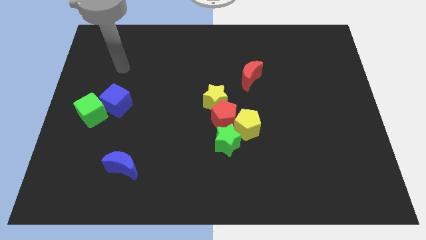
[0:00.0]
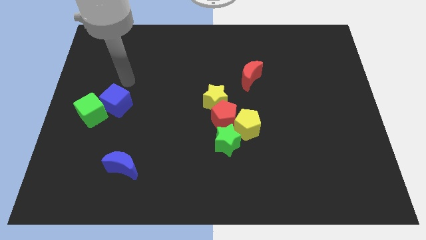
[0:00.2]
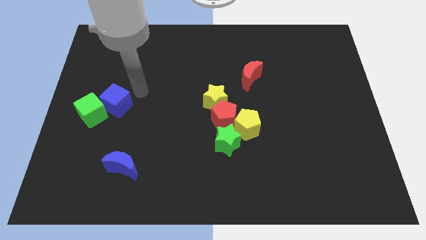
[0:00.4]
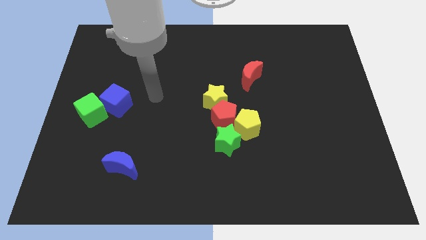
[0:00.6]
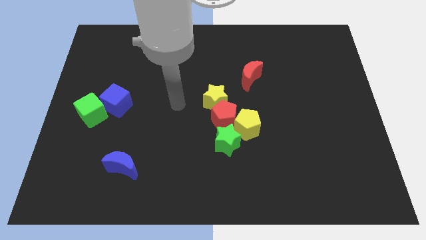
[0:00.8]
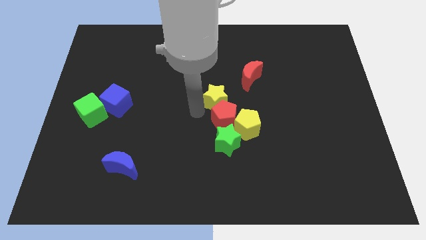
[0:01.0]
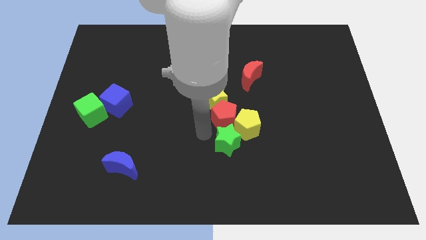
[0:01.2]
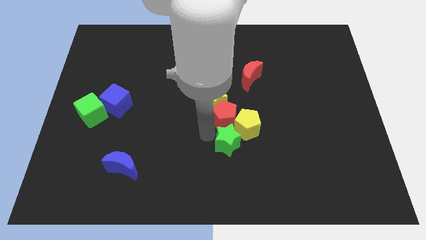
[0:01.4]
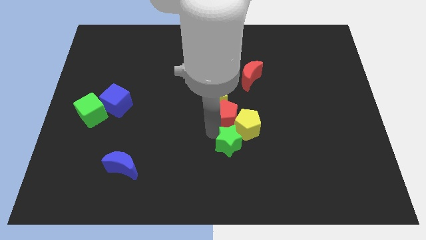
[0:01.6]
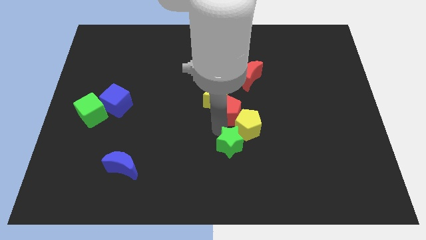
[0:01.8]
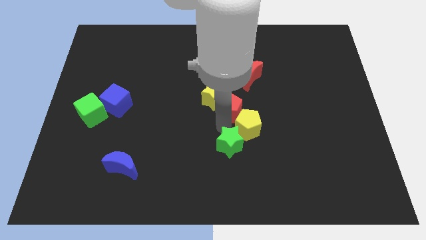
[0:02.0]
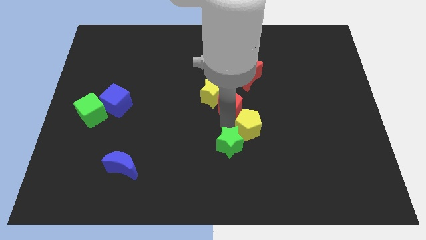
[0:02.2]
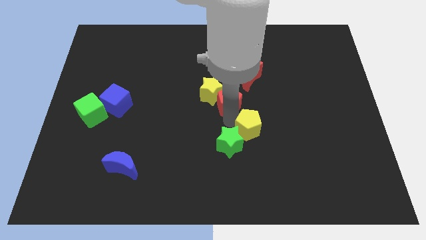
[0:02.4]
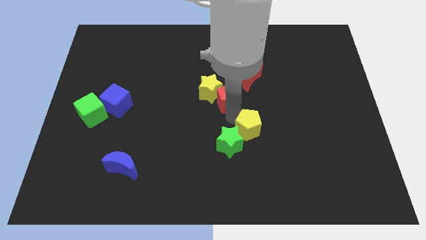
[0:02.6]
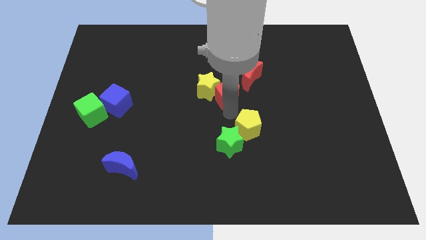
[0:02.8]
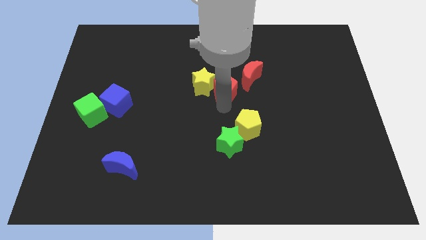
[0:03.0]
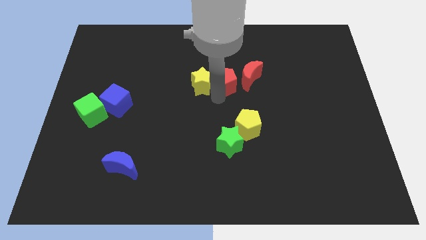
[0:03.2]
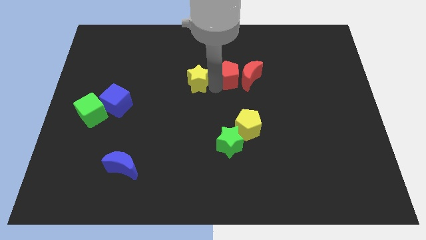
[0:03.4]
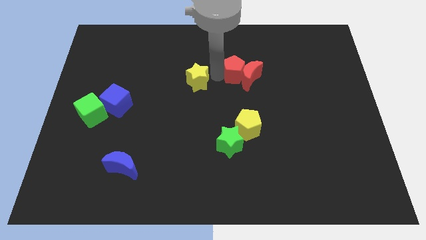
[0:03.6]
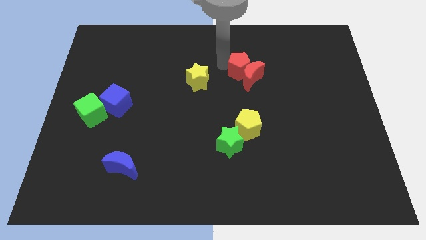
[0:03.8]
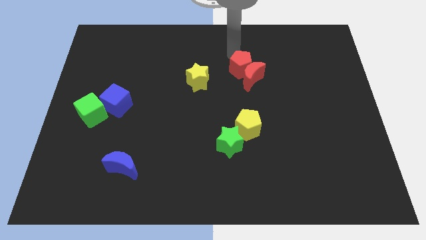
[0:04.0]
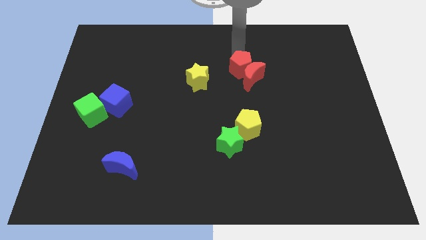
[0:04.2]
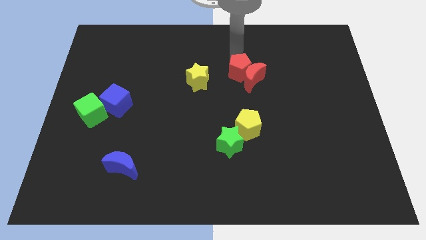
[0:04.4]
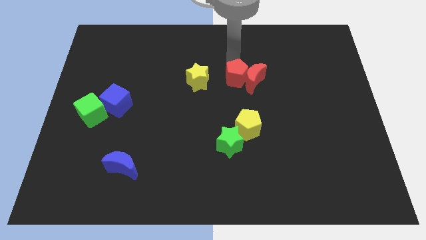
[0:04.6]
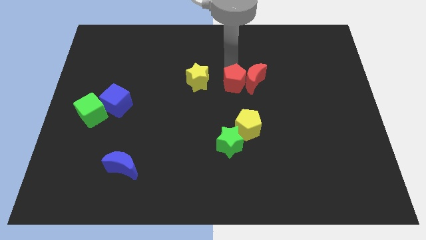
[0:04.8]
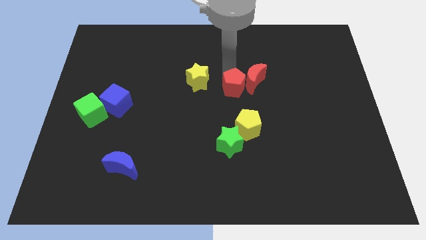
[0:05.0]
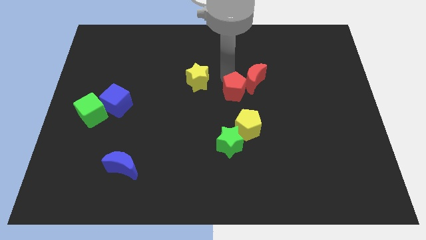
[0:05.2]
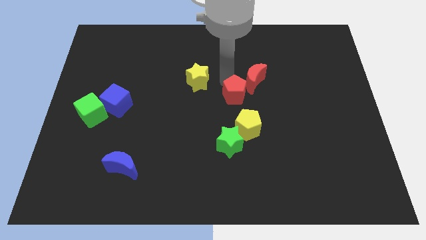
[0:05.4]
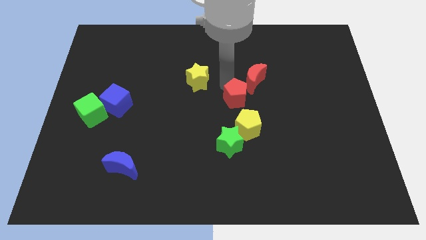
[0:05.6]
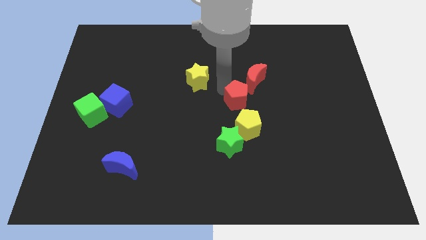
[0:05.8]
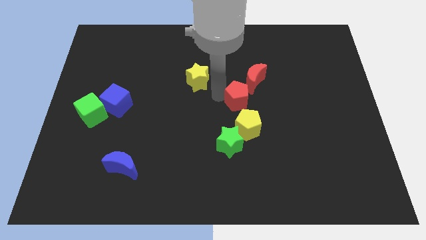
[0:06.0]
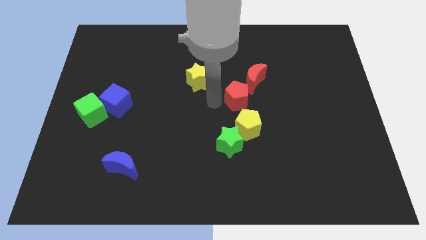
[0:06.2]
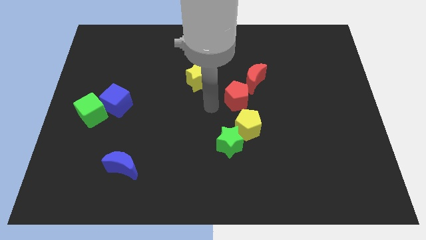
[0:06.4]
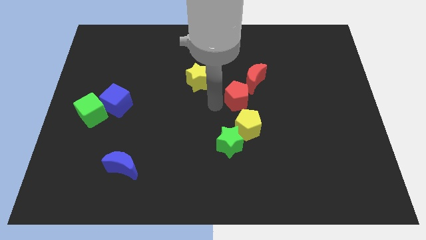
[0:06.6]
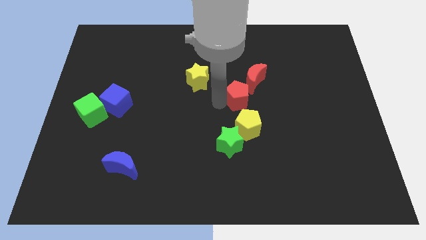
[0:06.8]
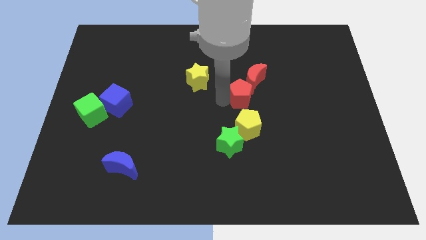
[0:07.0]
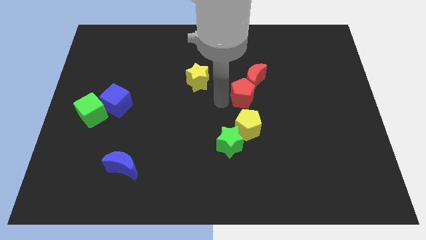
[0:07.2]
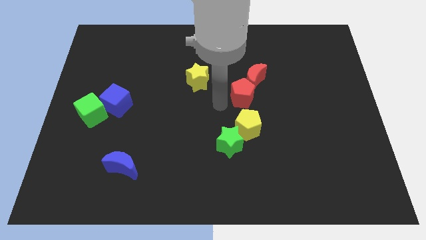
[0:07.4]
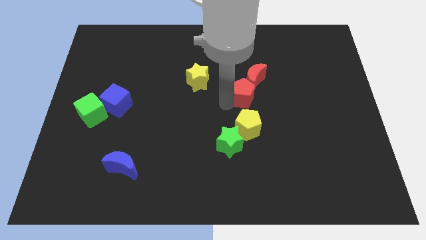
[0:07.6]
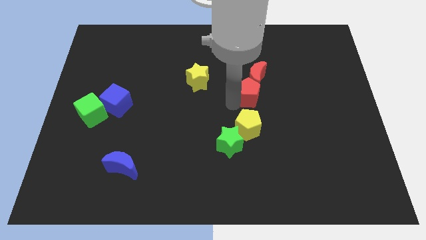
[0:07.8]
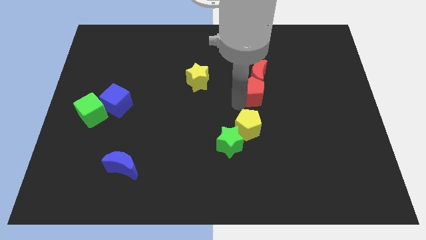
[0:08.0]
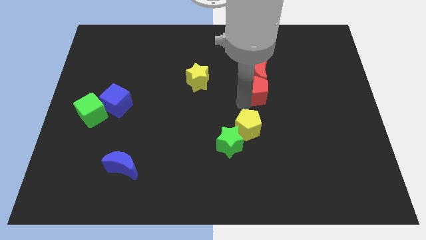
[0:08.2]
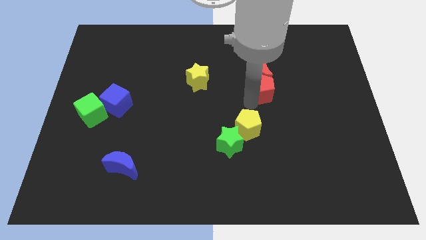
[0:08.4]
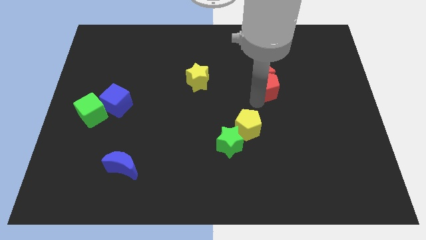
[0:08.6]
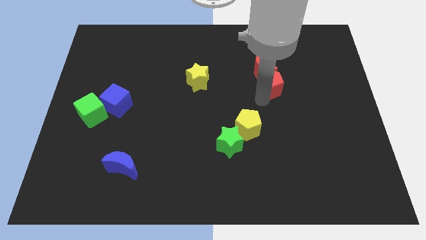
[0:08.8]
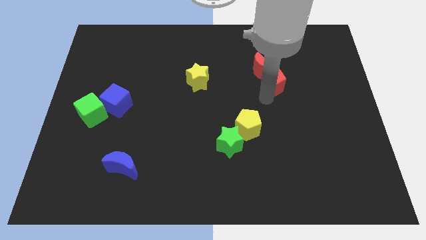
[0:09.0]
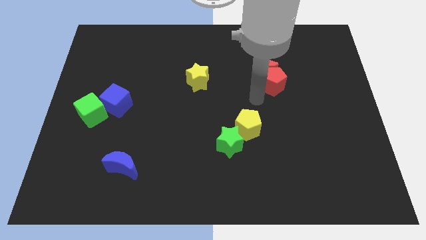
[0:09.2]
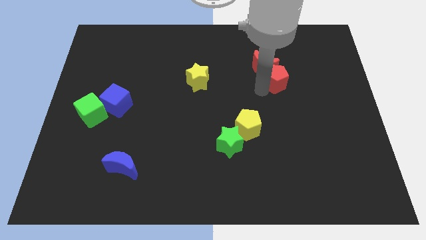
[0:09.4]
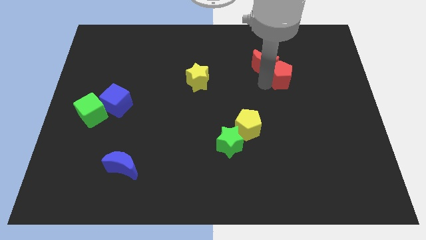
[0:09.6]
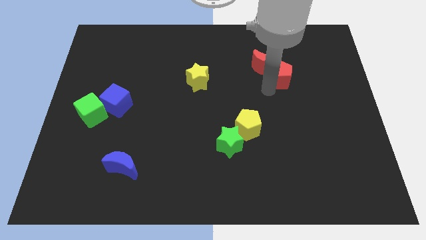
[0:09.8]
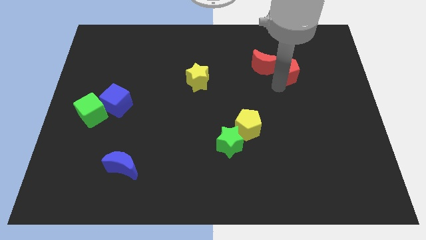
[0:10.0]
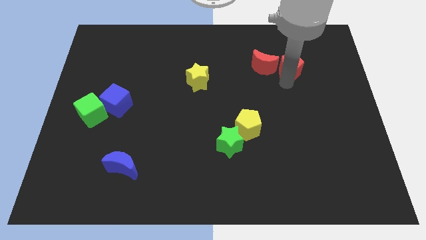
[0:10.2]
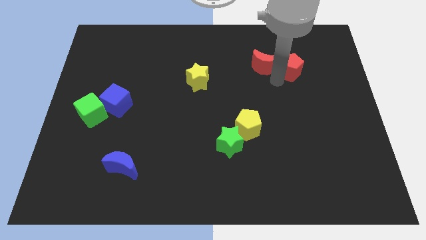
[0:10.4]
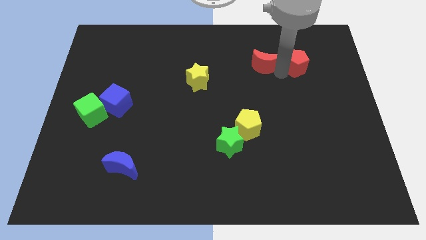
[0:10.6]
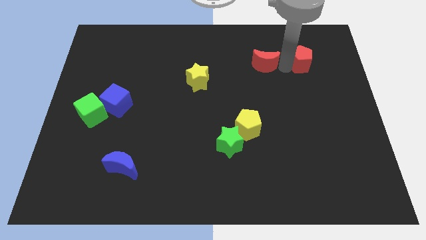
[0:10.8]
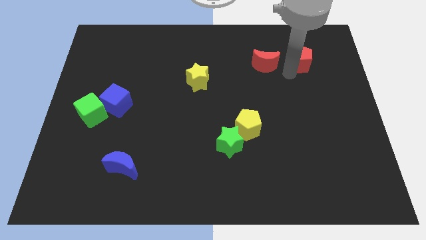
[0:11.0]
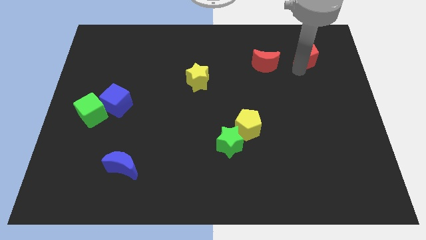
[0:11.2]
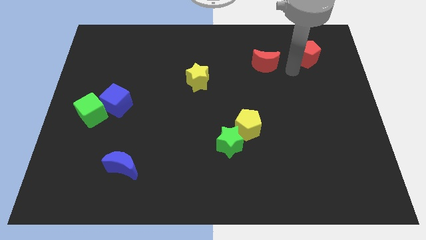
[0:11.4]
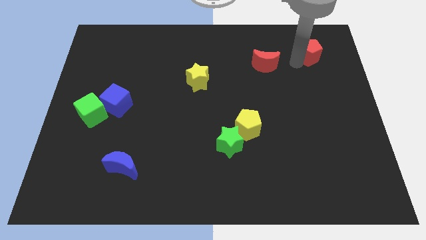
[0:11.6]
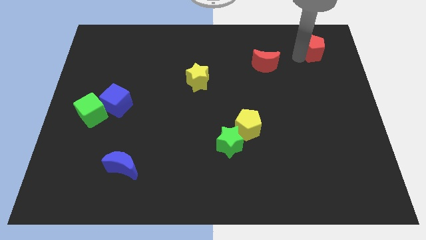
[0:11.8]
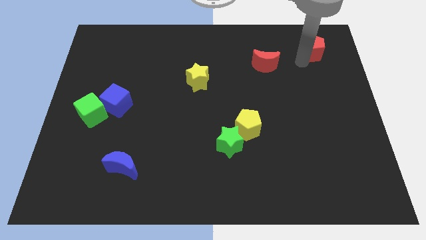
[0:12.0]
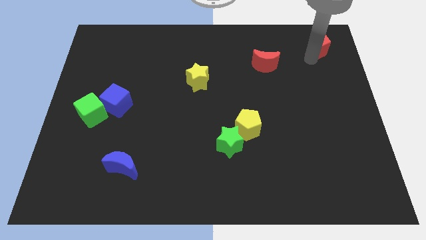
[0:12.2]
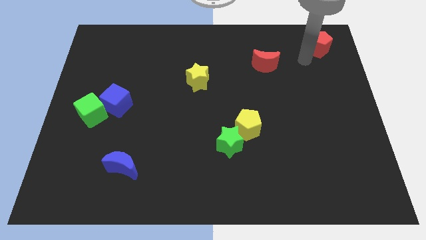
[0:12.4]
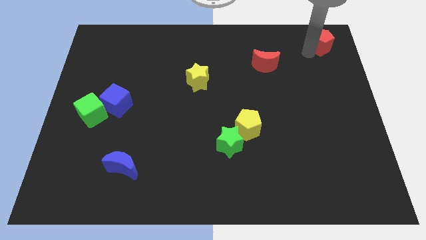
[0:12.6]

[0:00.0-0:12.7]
push the red pentagon to the top right
